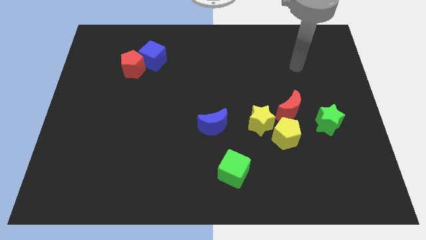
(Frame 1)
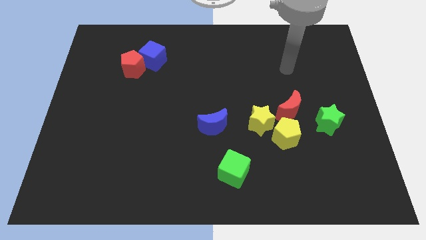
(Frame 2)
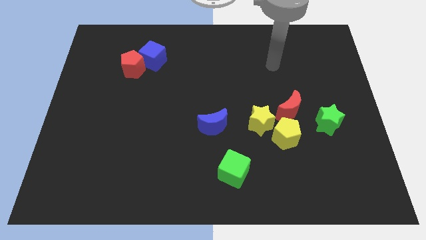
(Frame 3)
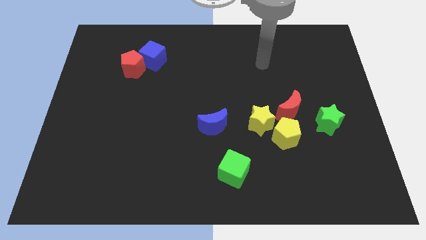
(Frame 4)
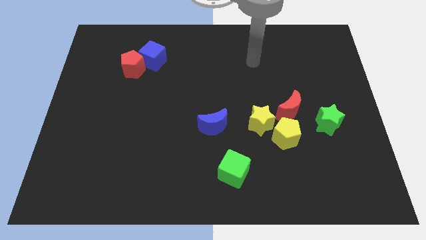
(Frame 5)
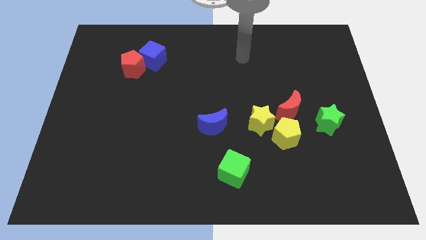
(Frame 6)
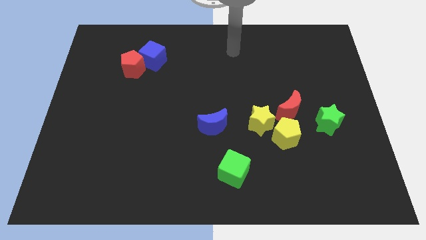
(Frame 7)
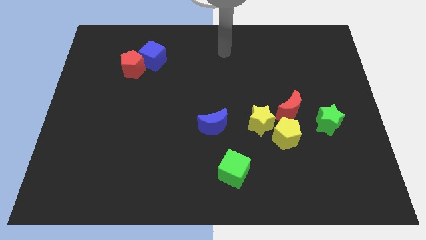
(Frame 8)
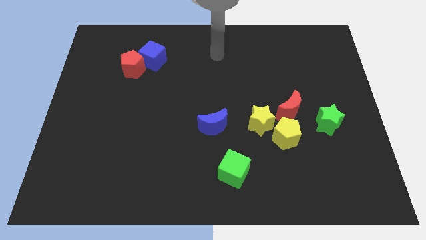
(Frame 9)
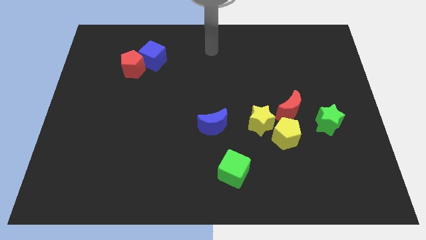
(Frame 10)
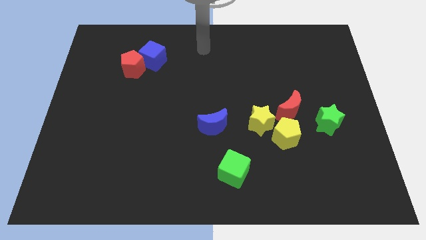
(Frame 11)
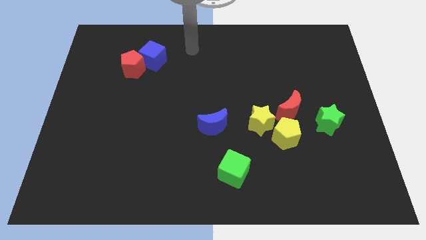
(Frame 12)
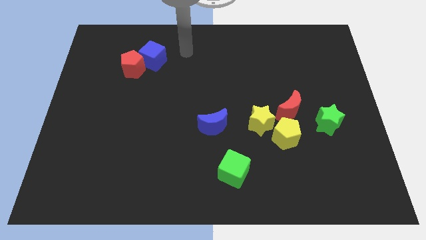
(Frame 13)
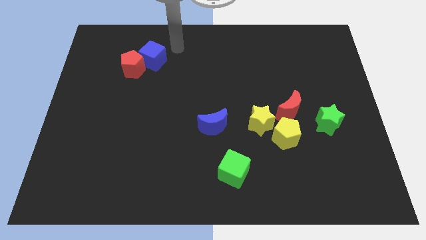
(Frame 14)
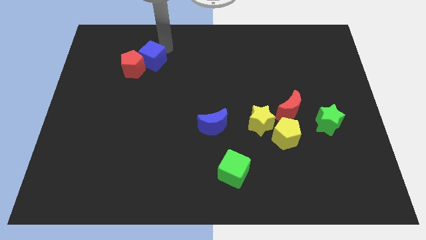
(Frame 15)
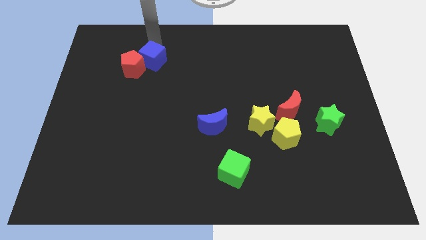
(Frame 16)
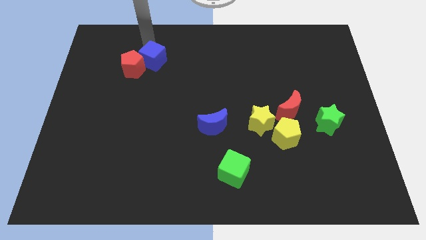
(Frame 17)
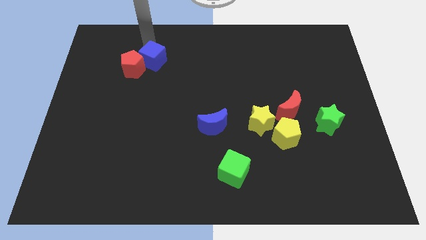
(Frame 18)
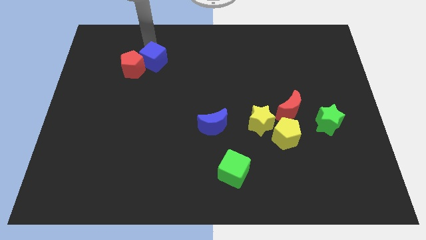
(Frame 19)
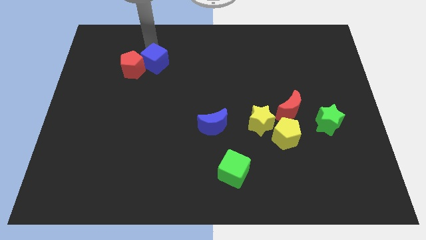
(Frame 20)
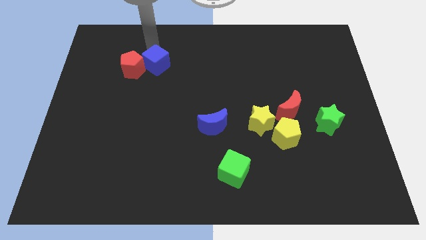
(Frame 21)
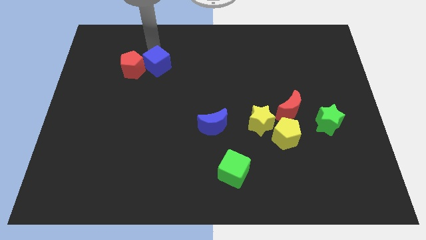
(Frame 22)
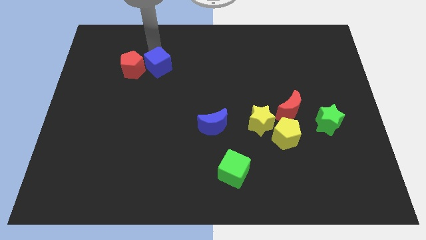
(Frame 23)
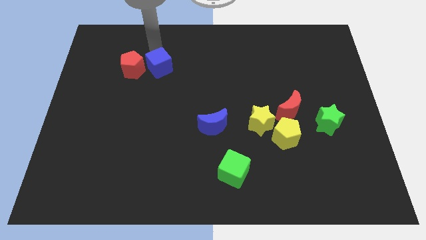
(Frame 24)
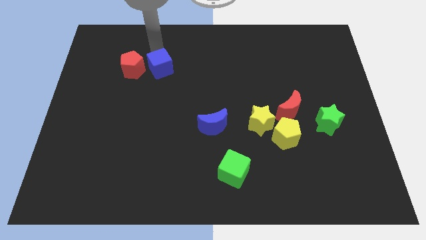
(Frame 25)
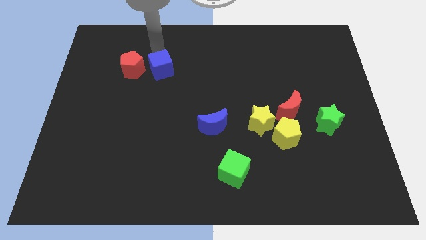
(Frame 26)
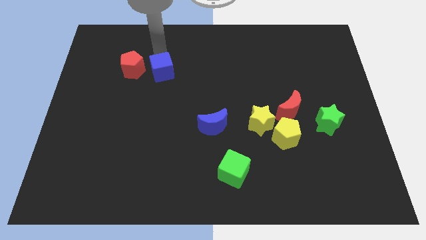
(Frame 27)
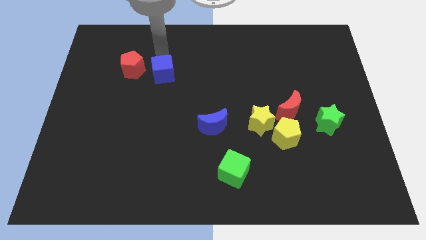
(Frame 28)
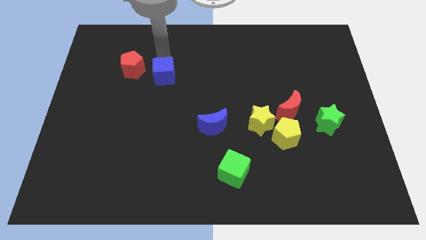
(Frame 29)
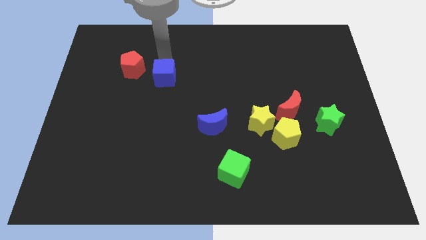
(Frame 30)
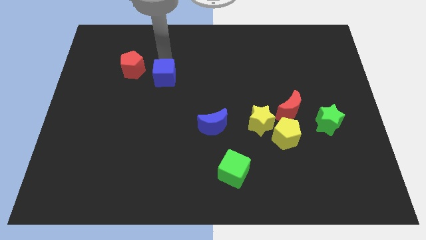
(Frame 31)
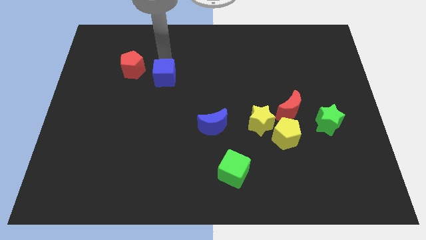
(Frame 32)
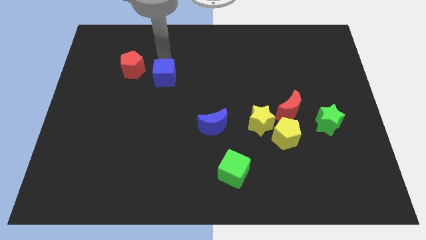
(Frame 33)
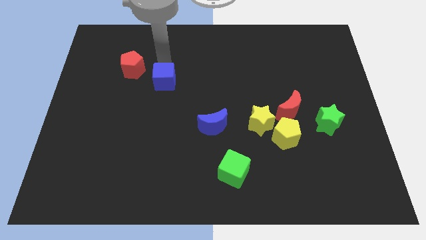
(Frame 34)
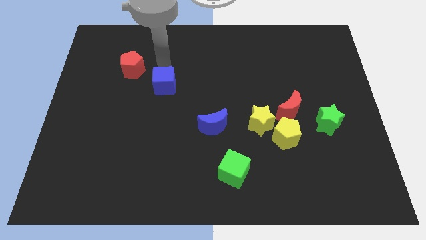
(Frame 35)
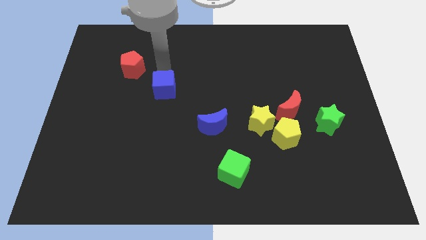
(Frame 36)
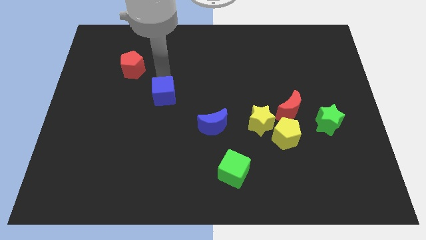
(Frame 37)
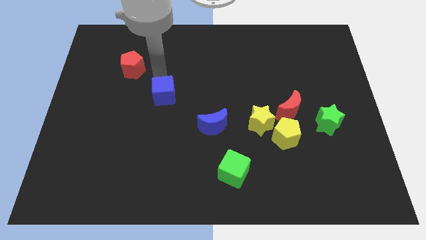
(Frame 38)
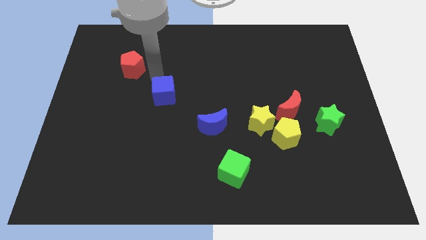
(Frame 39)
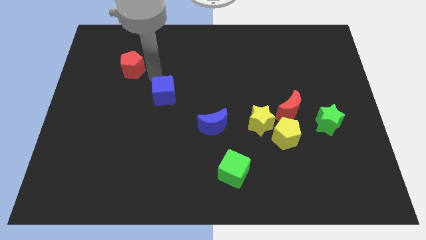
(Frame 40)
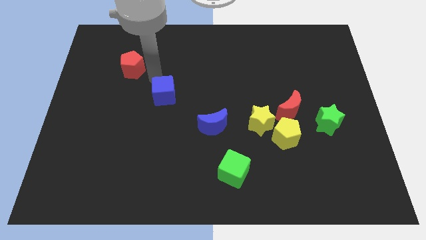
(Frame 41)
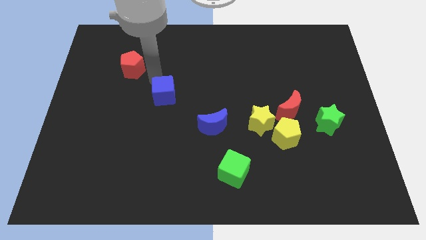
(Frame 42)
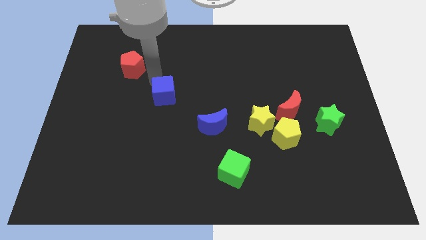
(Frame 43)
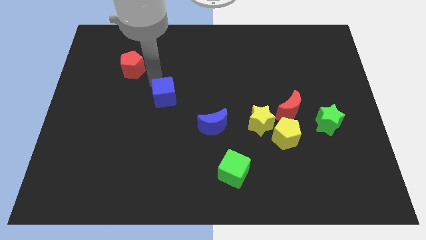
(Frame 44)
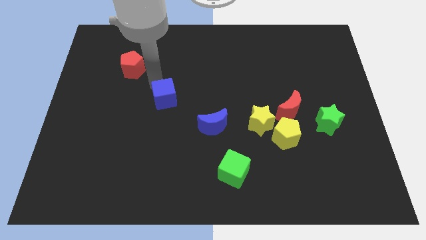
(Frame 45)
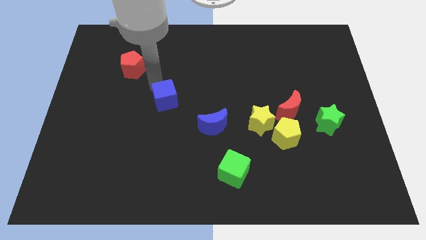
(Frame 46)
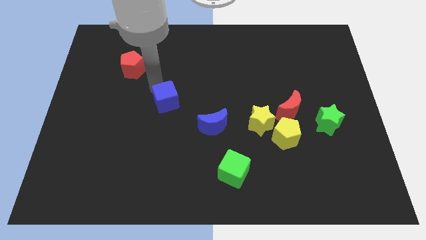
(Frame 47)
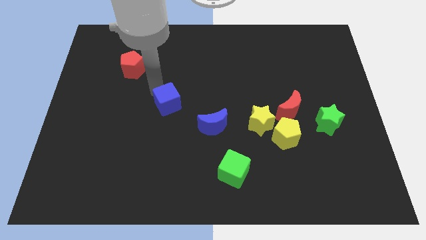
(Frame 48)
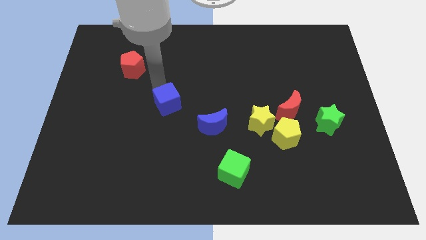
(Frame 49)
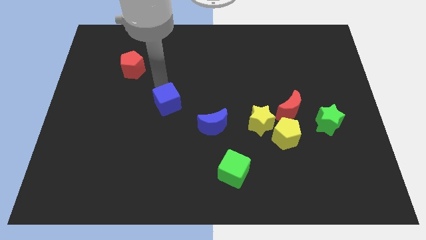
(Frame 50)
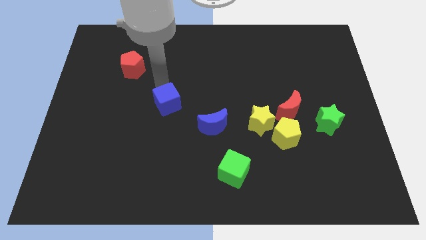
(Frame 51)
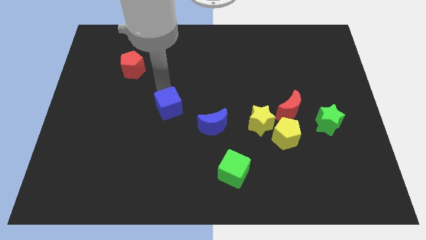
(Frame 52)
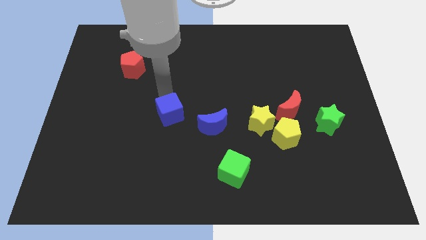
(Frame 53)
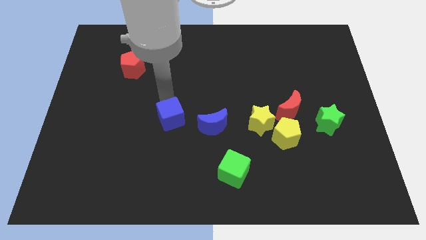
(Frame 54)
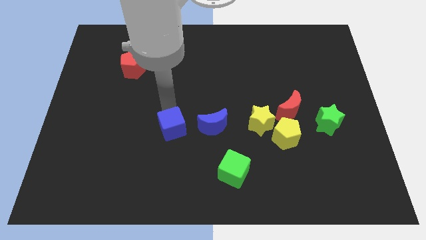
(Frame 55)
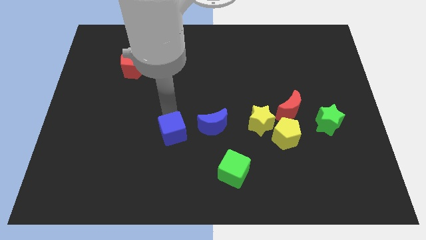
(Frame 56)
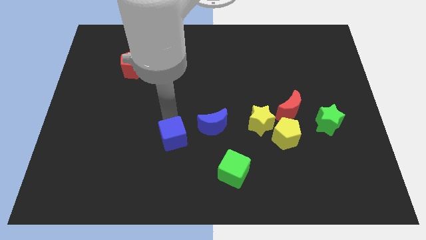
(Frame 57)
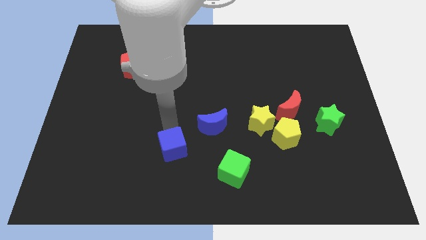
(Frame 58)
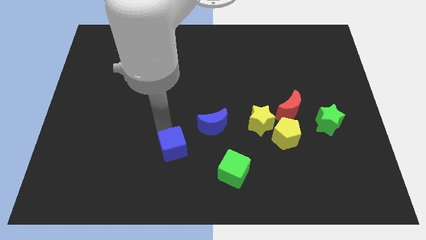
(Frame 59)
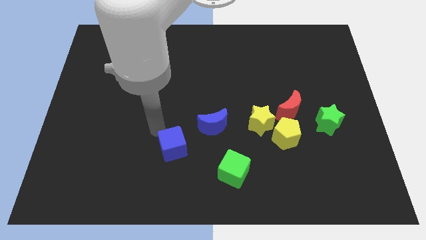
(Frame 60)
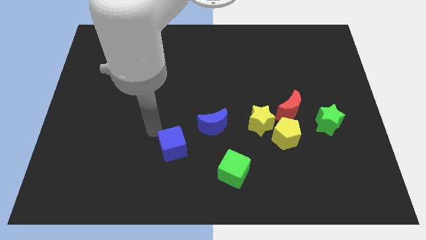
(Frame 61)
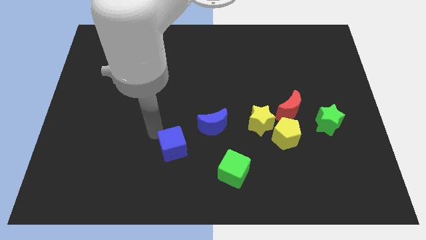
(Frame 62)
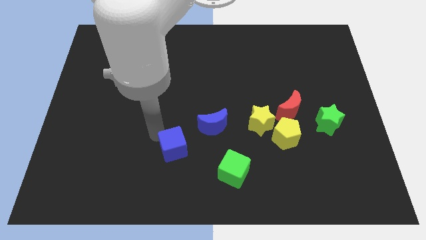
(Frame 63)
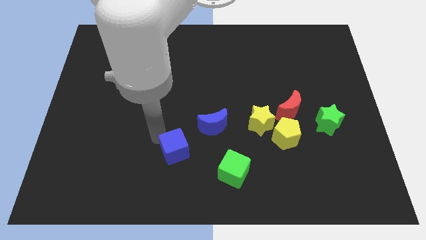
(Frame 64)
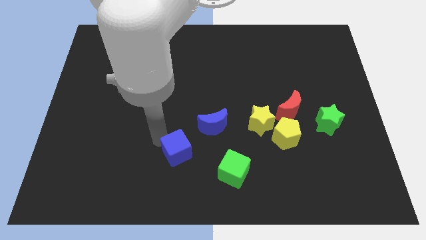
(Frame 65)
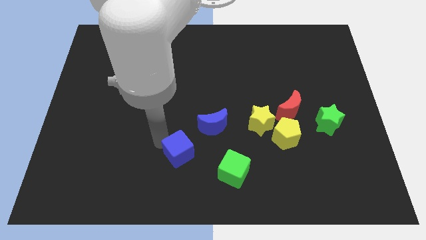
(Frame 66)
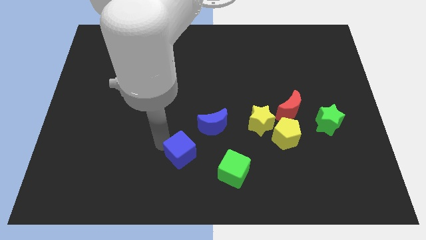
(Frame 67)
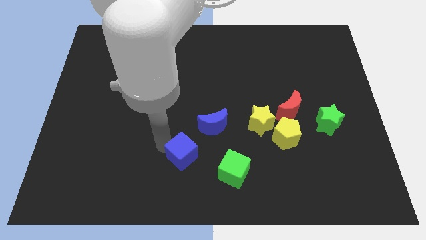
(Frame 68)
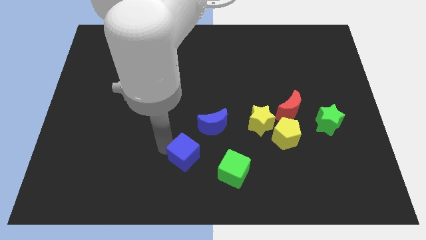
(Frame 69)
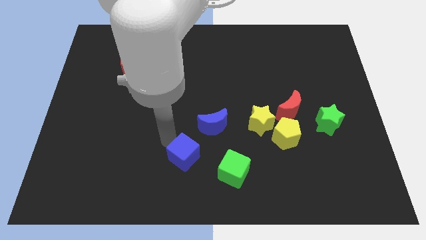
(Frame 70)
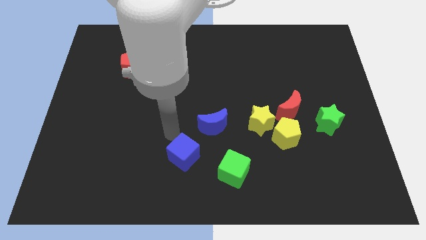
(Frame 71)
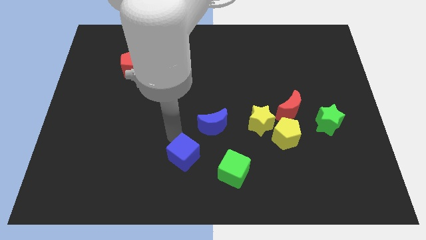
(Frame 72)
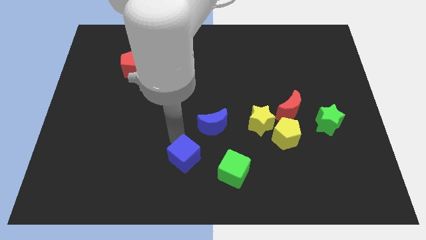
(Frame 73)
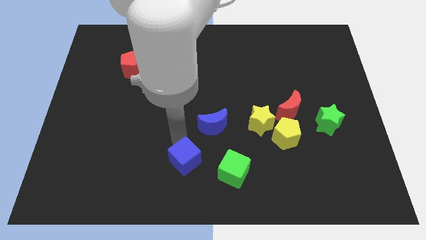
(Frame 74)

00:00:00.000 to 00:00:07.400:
slide the blue cube to the bottom
